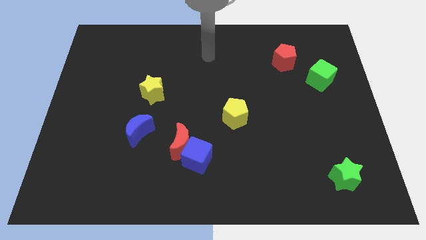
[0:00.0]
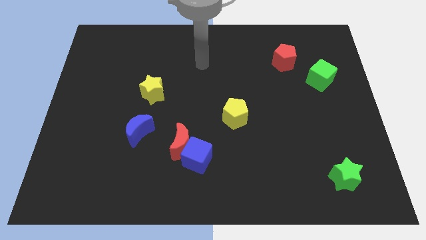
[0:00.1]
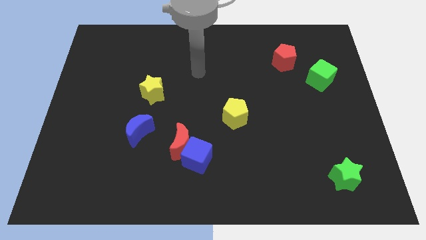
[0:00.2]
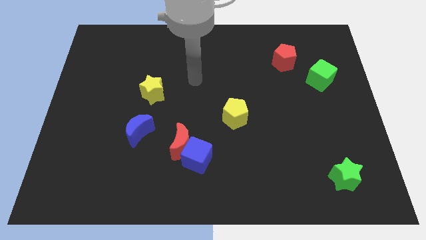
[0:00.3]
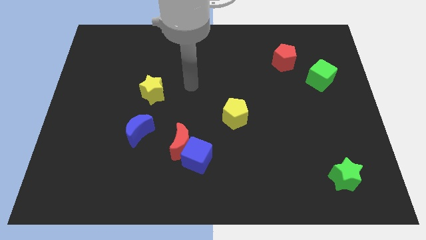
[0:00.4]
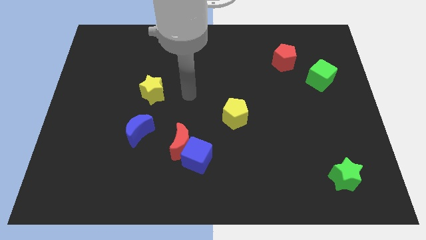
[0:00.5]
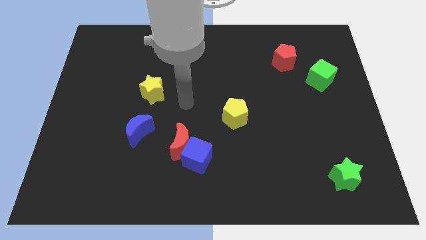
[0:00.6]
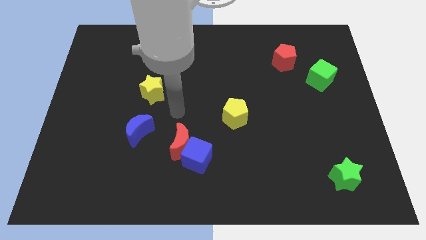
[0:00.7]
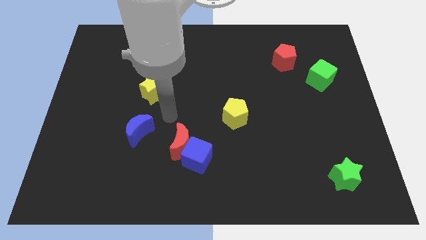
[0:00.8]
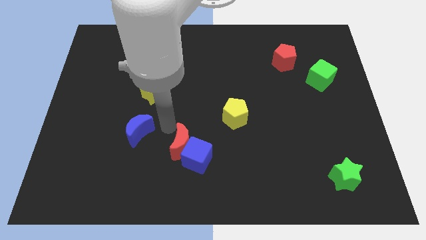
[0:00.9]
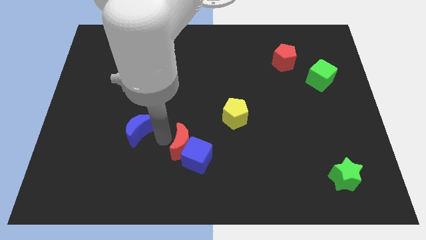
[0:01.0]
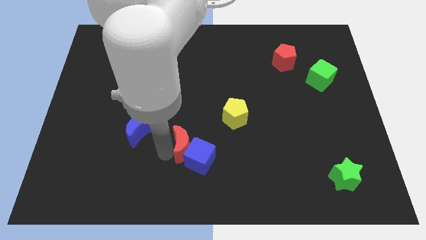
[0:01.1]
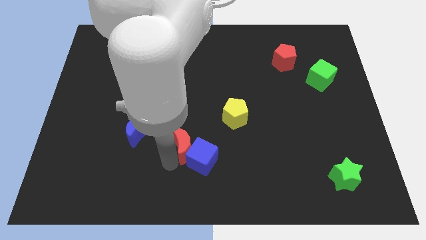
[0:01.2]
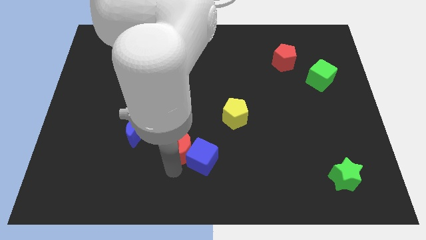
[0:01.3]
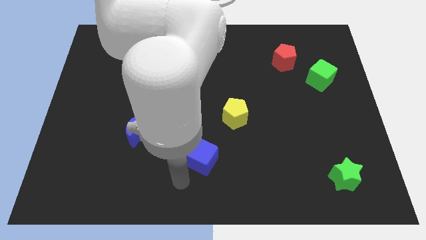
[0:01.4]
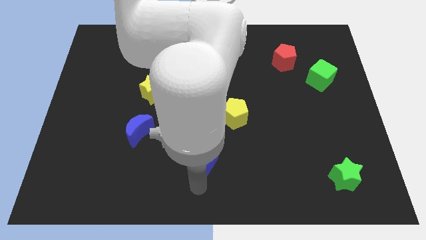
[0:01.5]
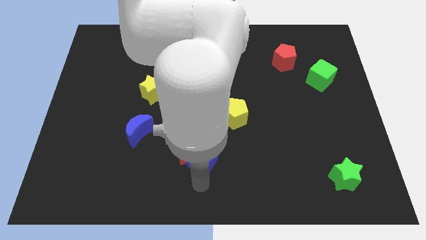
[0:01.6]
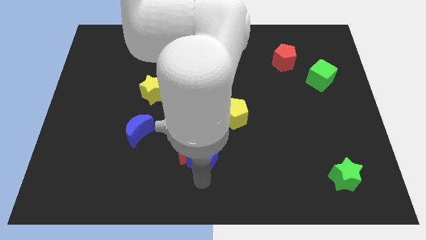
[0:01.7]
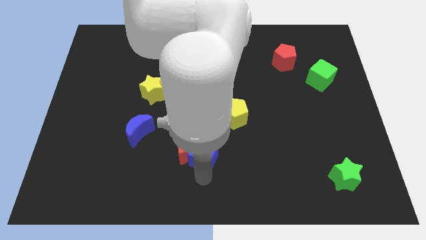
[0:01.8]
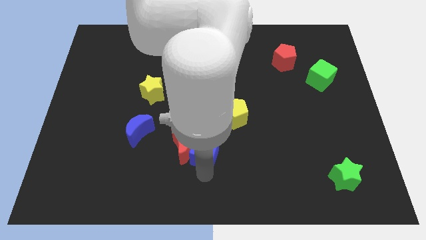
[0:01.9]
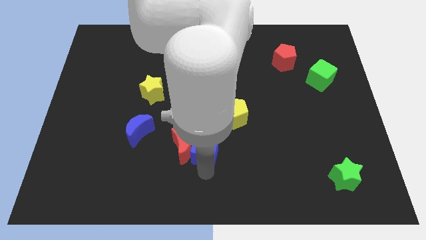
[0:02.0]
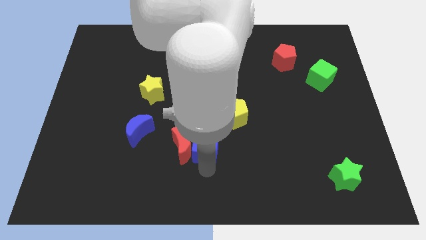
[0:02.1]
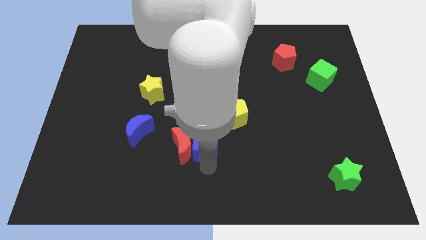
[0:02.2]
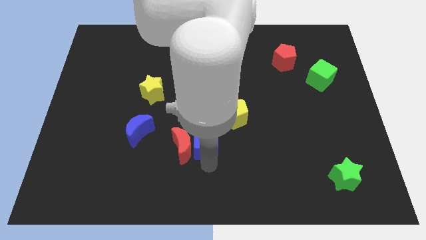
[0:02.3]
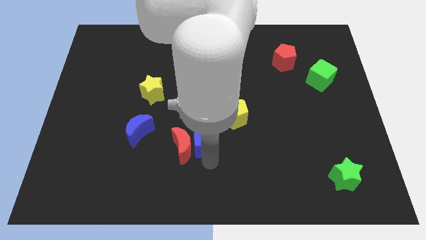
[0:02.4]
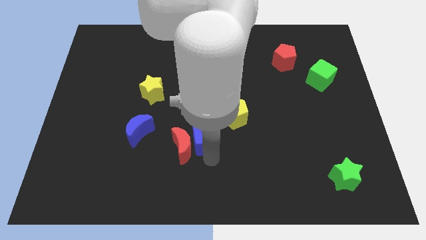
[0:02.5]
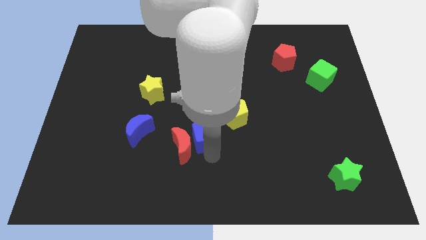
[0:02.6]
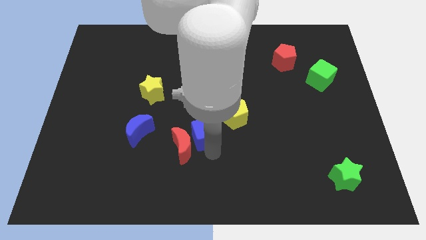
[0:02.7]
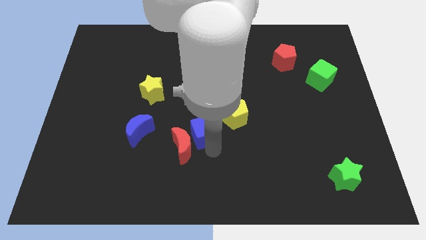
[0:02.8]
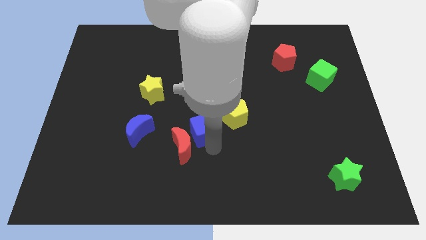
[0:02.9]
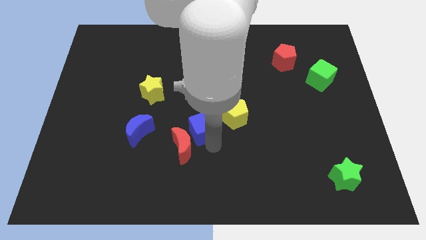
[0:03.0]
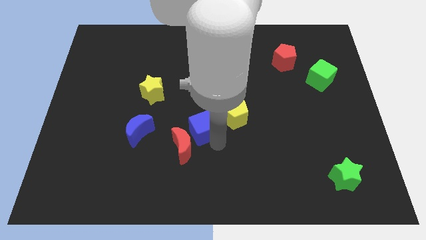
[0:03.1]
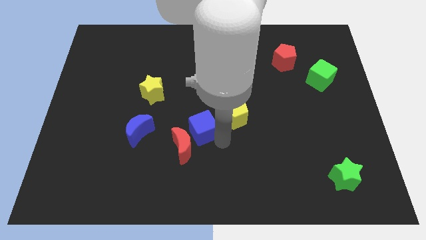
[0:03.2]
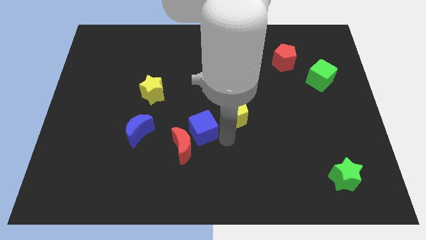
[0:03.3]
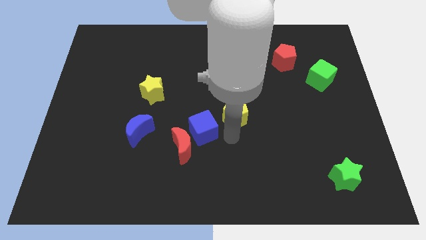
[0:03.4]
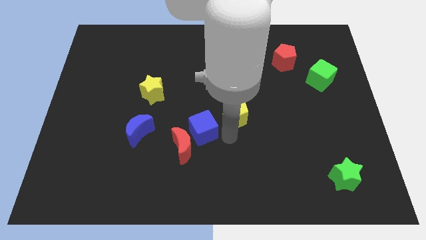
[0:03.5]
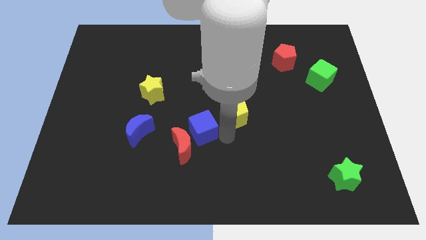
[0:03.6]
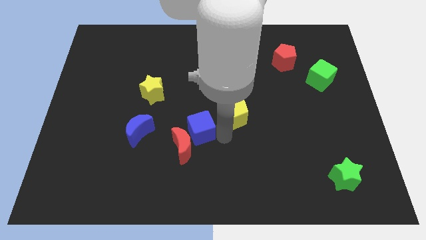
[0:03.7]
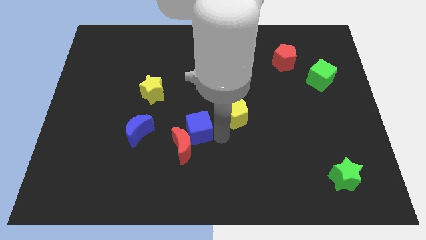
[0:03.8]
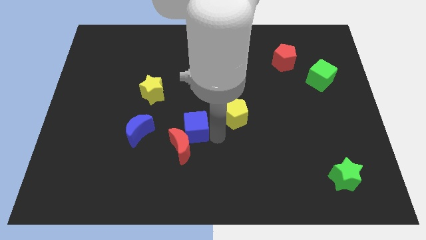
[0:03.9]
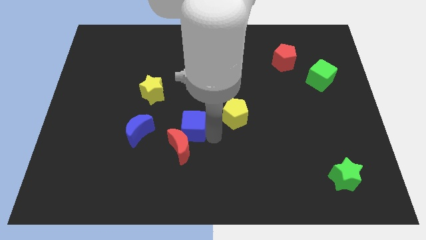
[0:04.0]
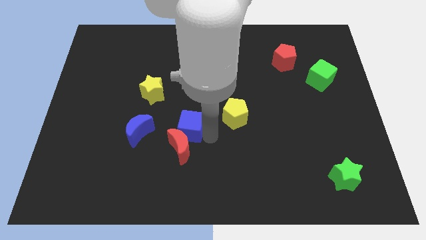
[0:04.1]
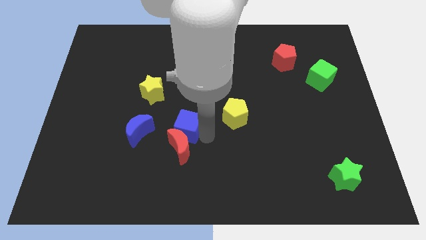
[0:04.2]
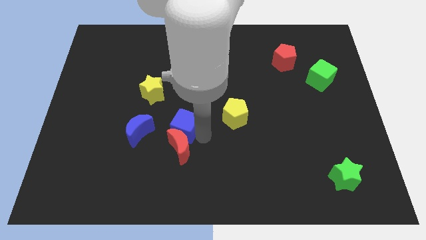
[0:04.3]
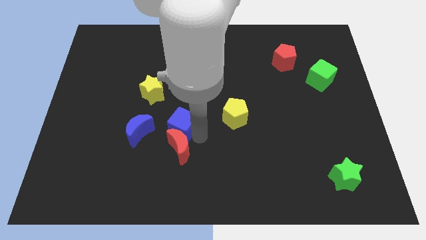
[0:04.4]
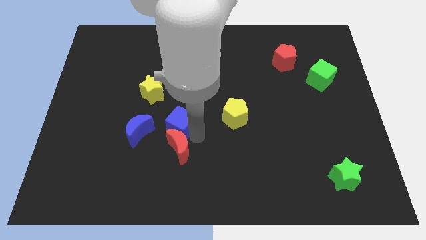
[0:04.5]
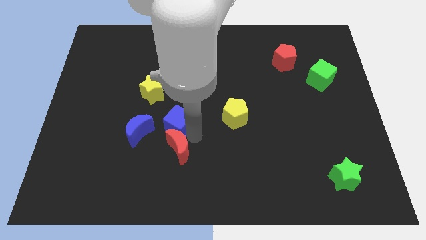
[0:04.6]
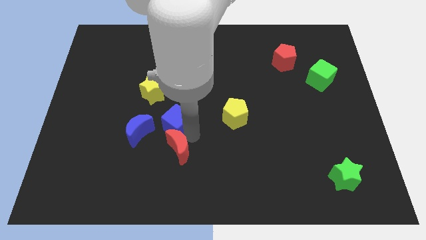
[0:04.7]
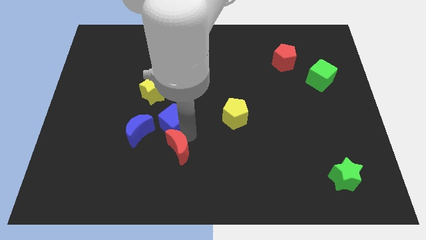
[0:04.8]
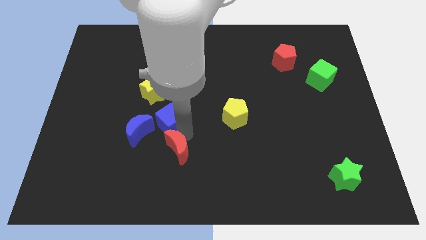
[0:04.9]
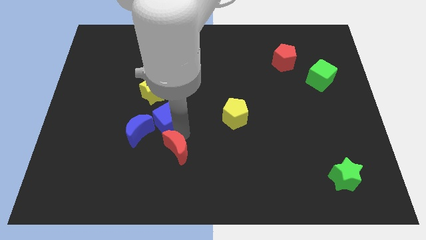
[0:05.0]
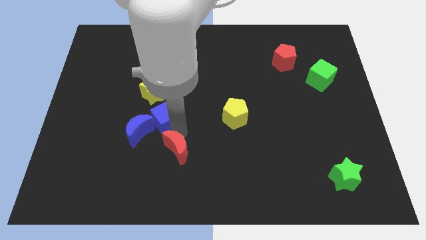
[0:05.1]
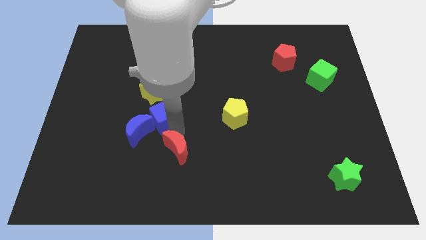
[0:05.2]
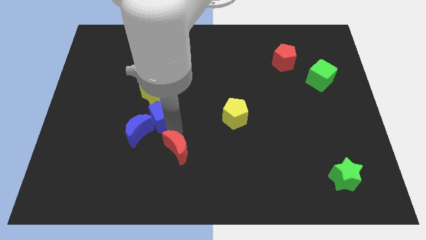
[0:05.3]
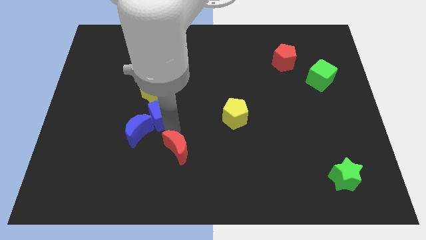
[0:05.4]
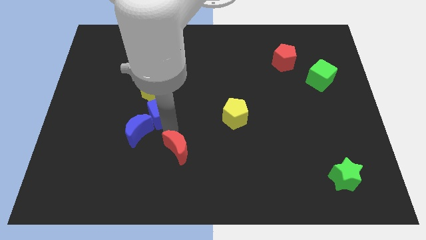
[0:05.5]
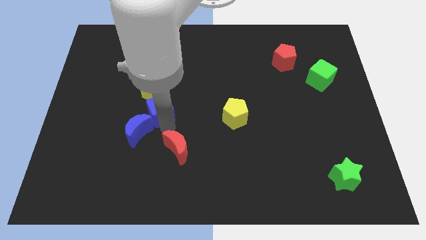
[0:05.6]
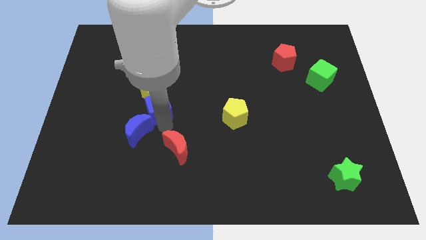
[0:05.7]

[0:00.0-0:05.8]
put the blue cube to the yellow star

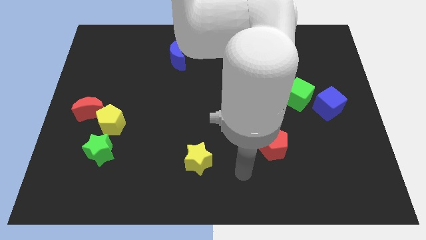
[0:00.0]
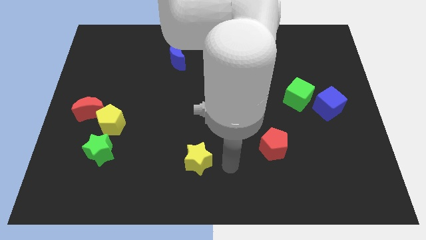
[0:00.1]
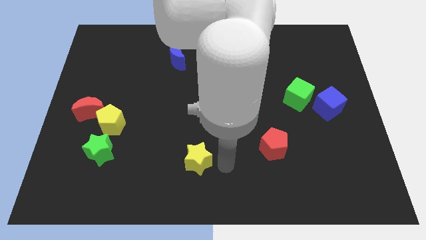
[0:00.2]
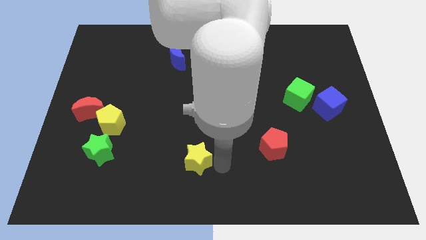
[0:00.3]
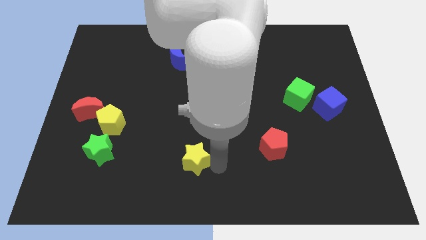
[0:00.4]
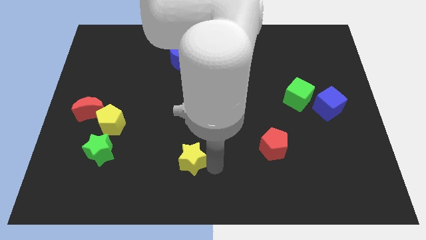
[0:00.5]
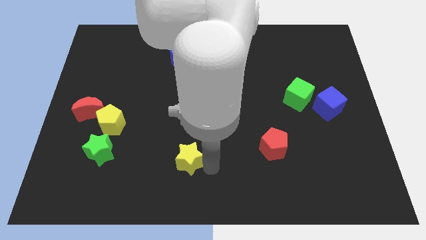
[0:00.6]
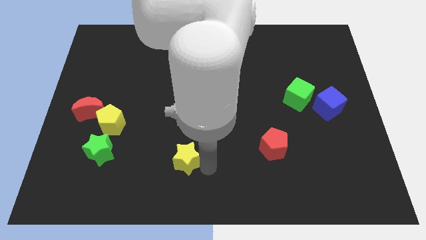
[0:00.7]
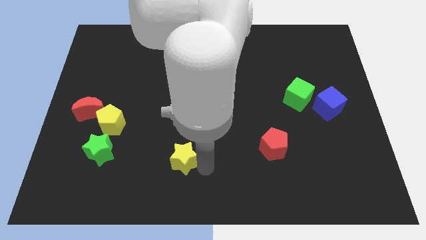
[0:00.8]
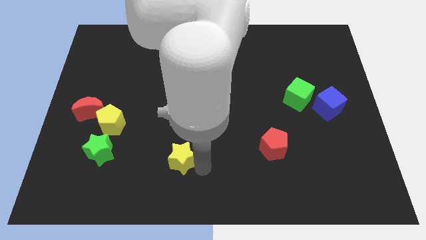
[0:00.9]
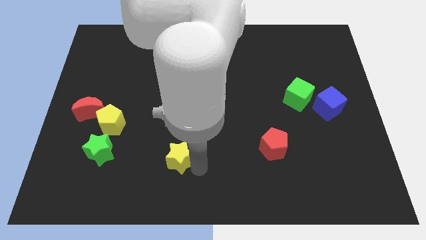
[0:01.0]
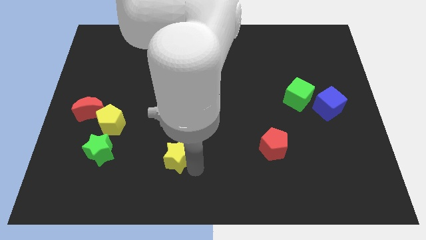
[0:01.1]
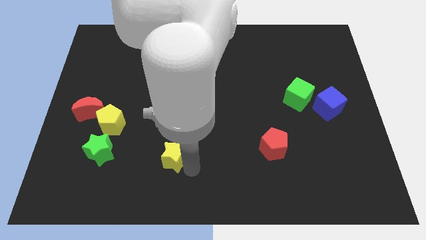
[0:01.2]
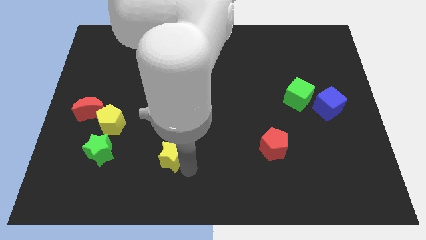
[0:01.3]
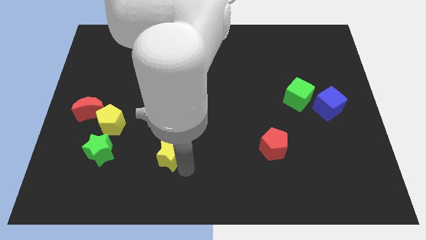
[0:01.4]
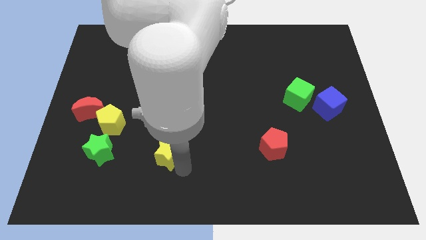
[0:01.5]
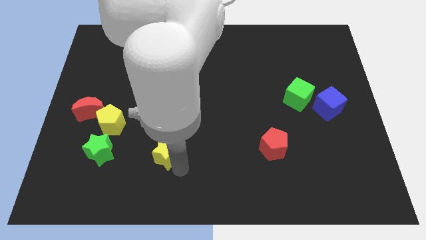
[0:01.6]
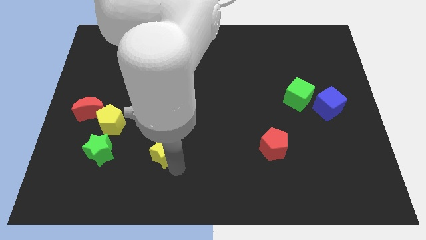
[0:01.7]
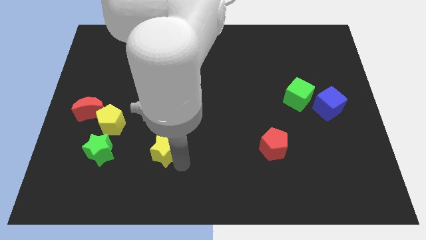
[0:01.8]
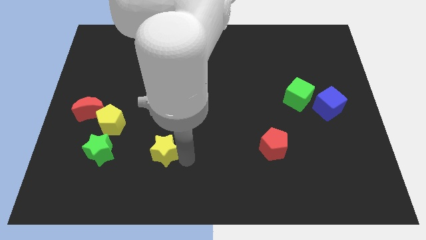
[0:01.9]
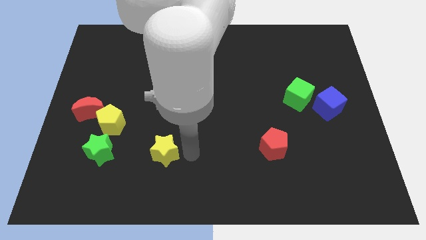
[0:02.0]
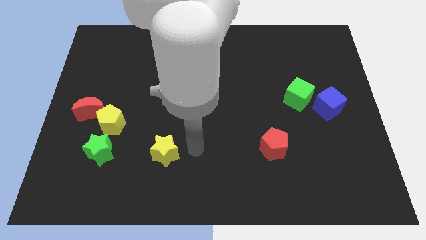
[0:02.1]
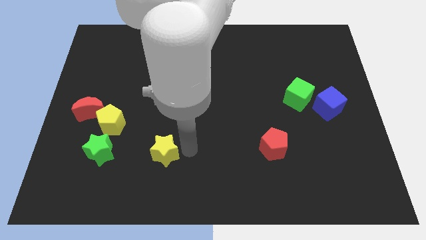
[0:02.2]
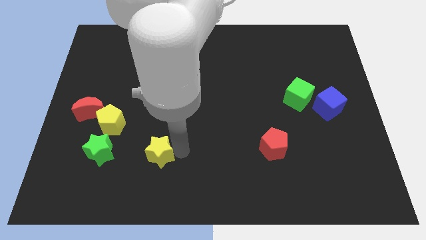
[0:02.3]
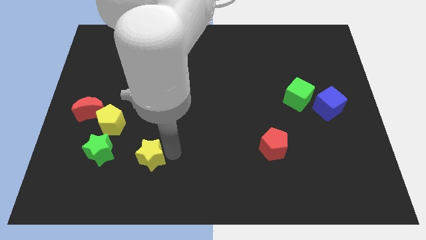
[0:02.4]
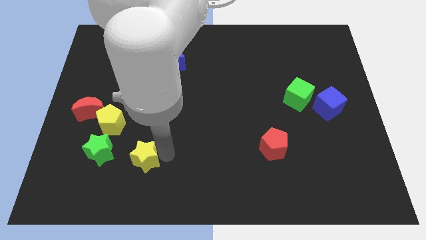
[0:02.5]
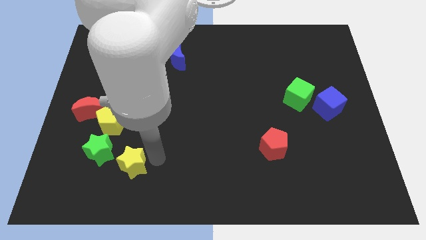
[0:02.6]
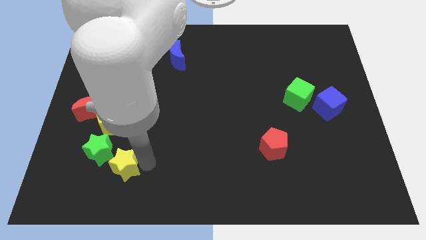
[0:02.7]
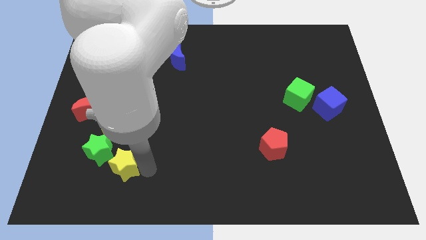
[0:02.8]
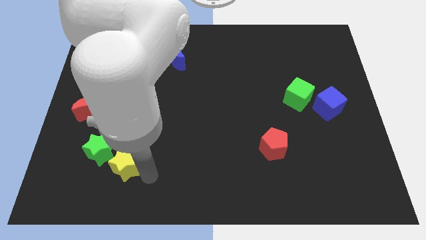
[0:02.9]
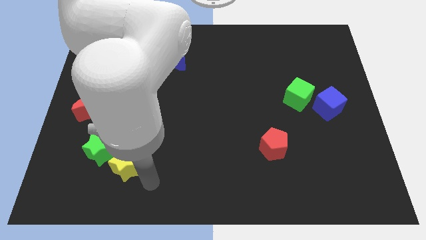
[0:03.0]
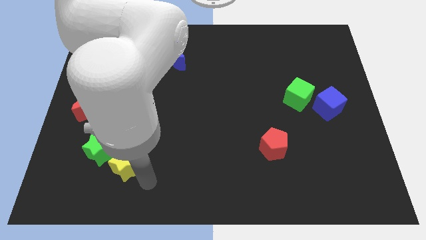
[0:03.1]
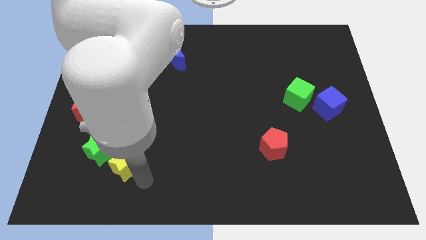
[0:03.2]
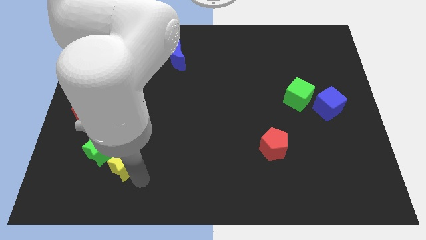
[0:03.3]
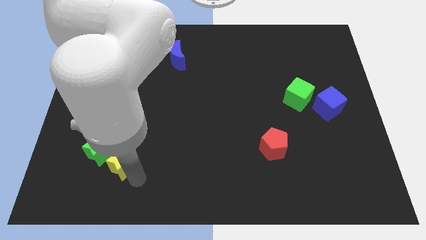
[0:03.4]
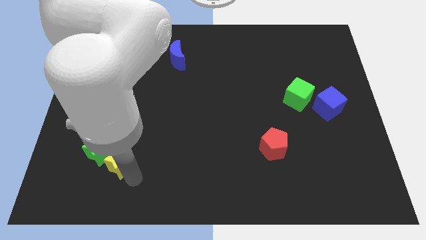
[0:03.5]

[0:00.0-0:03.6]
slide the yellow star close to the green star
